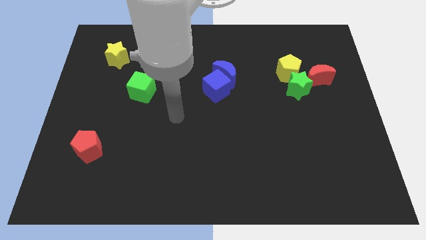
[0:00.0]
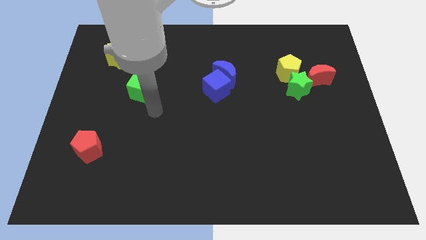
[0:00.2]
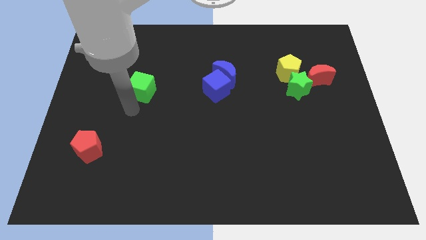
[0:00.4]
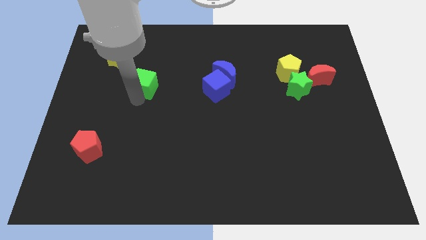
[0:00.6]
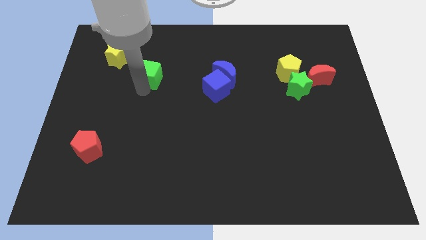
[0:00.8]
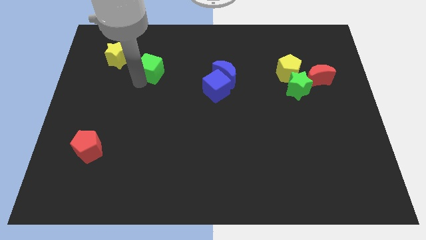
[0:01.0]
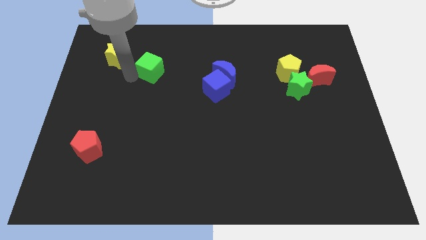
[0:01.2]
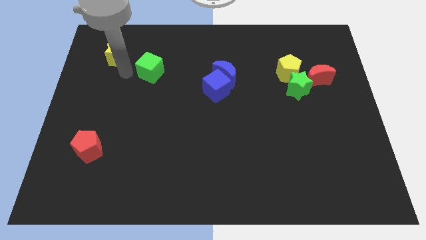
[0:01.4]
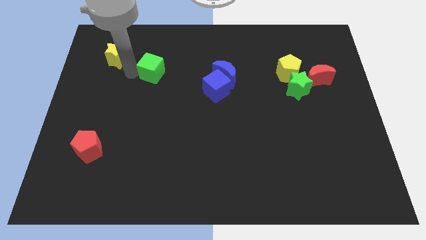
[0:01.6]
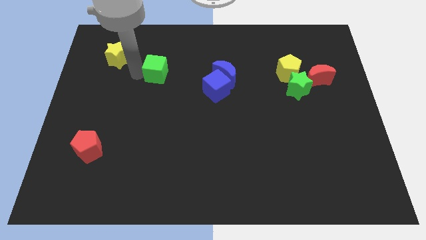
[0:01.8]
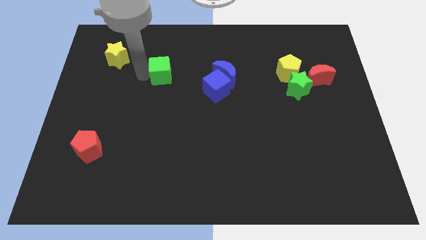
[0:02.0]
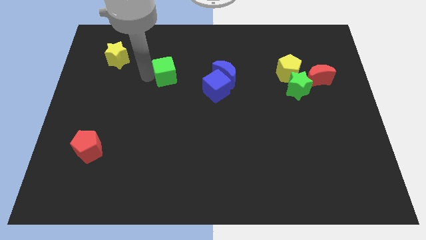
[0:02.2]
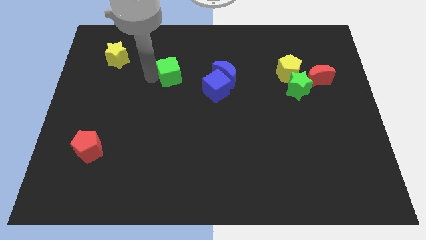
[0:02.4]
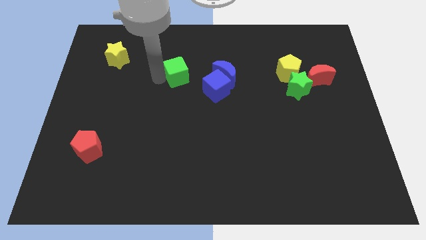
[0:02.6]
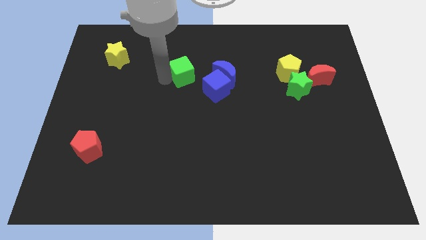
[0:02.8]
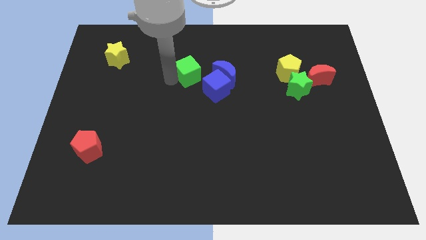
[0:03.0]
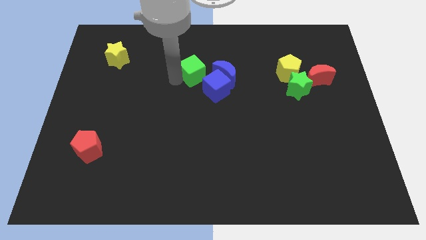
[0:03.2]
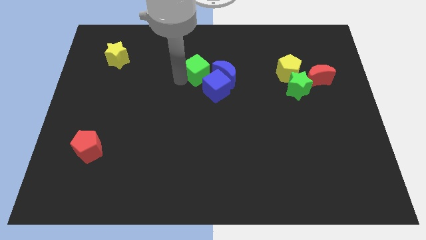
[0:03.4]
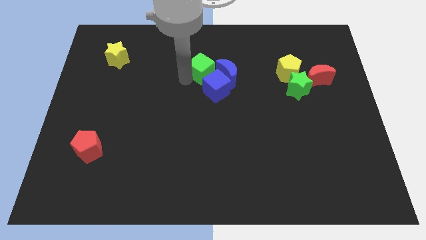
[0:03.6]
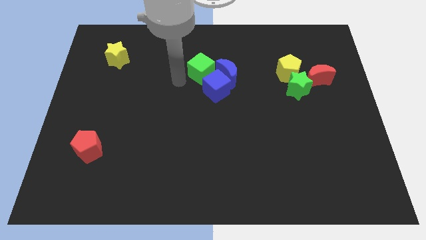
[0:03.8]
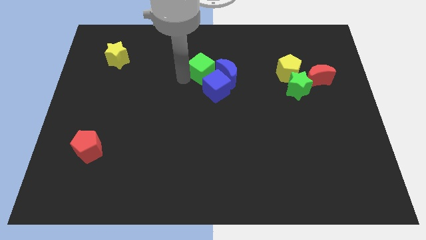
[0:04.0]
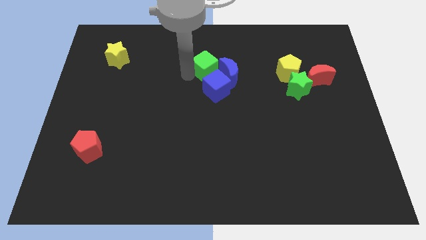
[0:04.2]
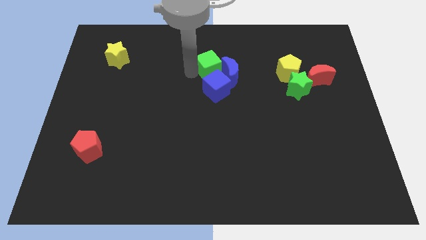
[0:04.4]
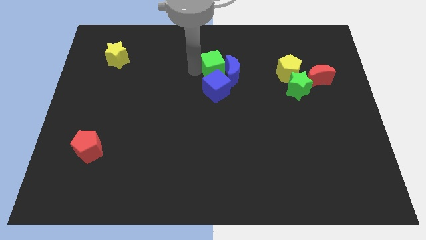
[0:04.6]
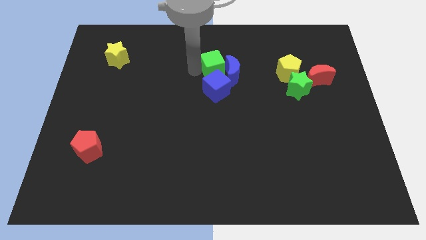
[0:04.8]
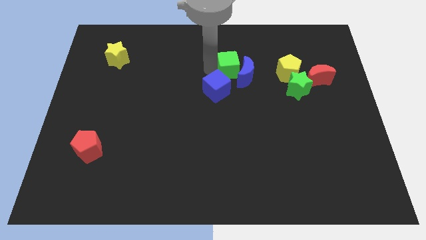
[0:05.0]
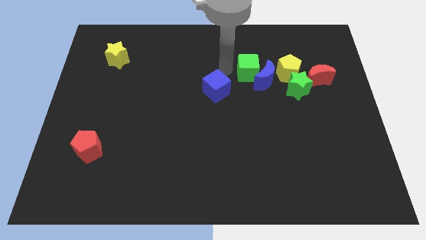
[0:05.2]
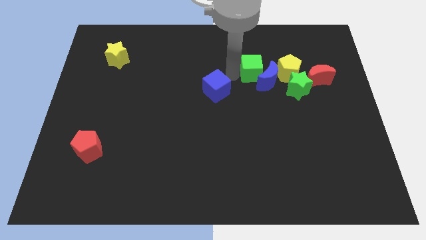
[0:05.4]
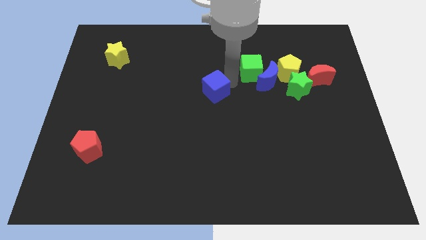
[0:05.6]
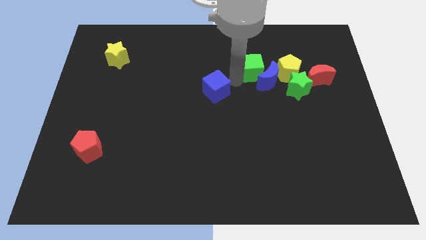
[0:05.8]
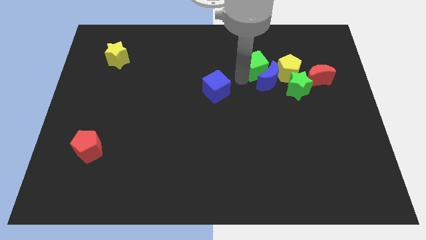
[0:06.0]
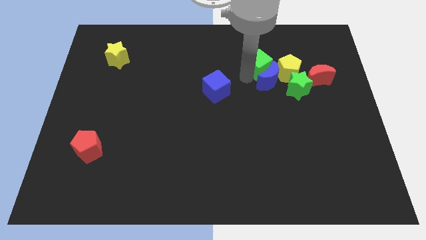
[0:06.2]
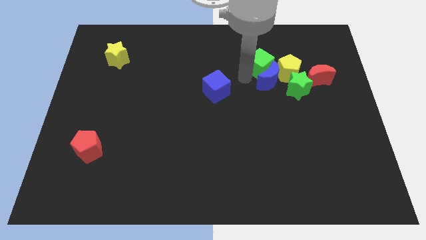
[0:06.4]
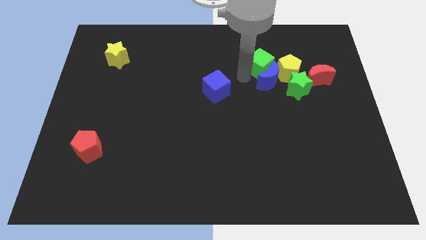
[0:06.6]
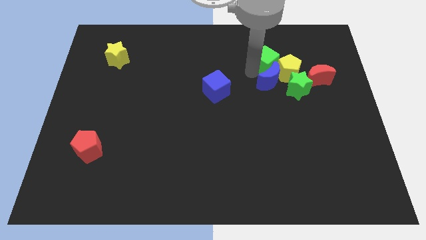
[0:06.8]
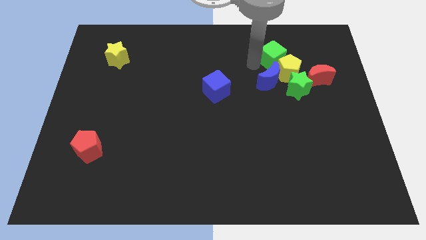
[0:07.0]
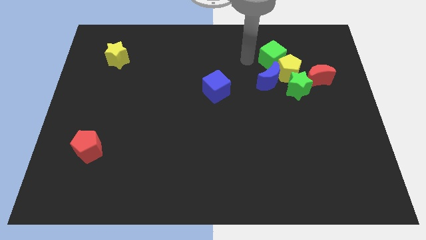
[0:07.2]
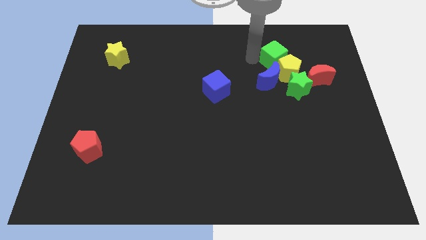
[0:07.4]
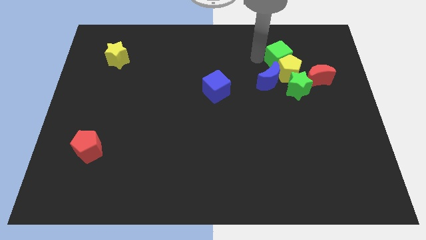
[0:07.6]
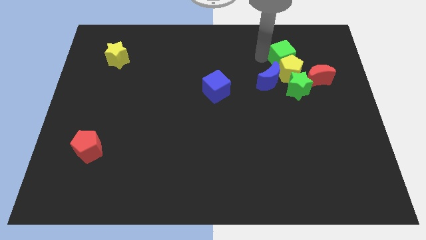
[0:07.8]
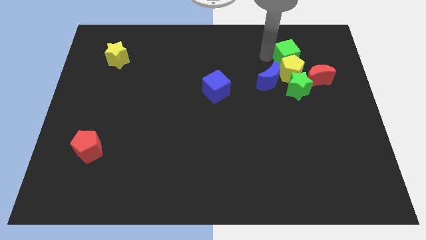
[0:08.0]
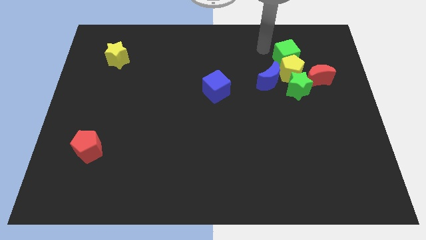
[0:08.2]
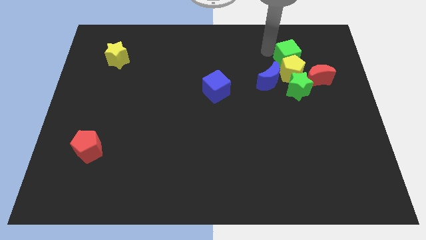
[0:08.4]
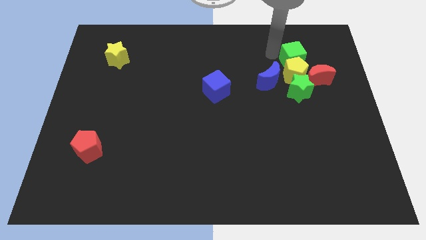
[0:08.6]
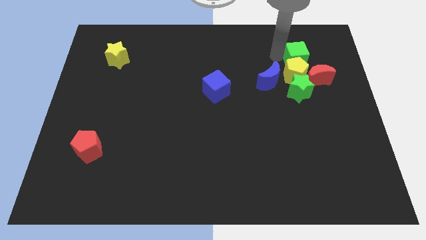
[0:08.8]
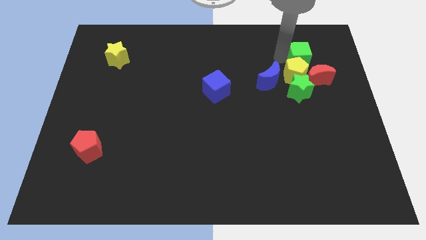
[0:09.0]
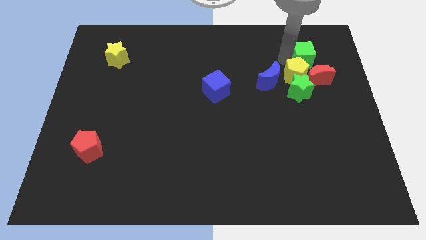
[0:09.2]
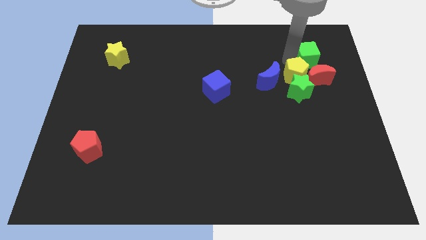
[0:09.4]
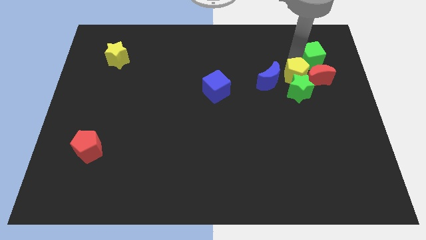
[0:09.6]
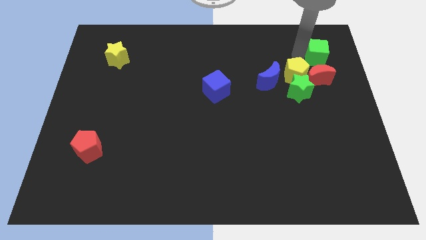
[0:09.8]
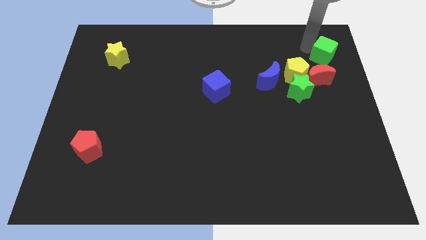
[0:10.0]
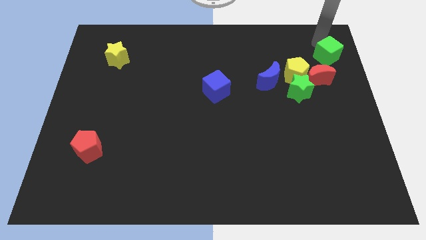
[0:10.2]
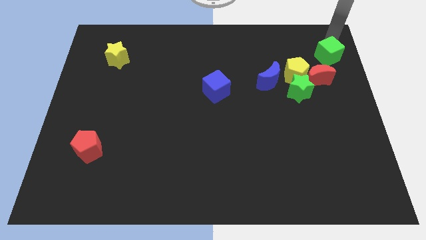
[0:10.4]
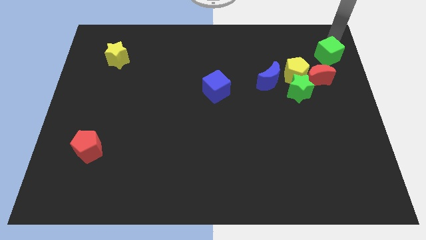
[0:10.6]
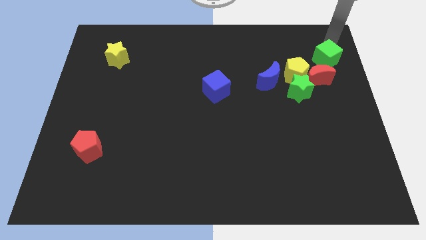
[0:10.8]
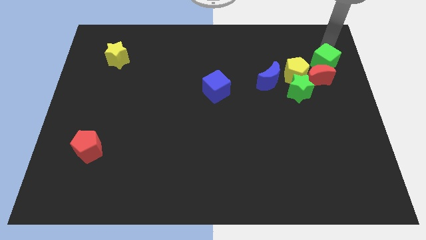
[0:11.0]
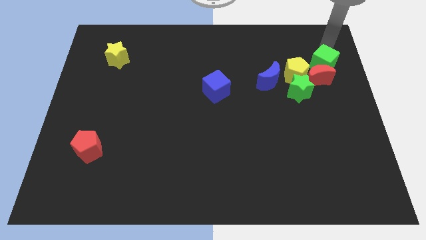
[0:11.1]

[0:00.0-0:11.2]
slide the green cube close to the red moon

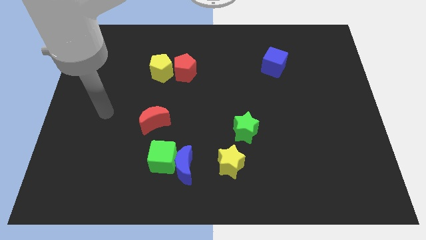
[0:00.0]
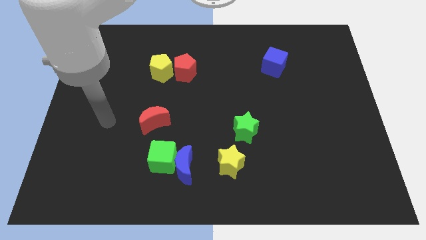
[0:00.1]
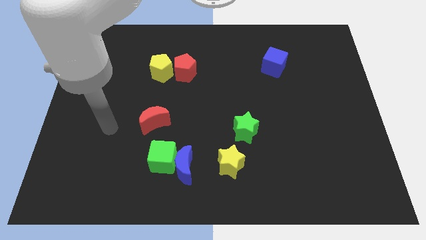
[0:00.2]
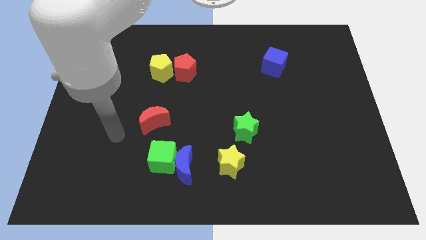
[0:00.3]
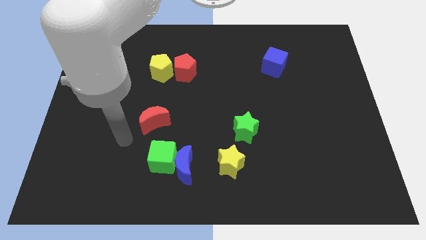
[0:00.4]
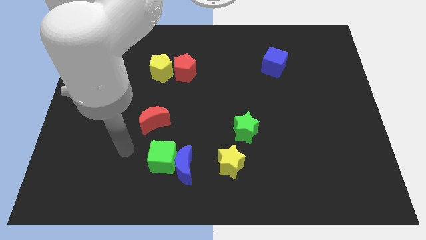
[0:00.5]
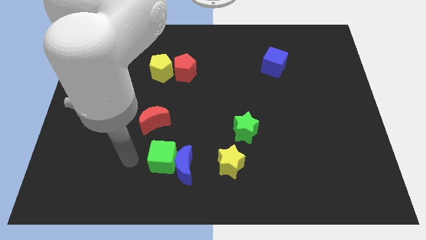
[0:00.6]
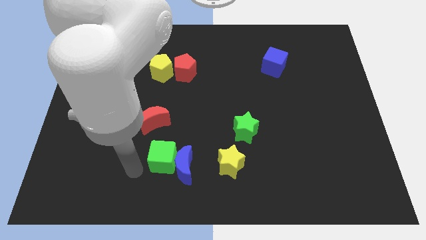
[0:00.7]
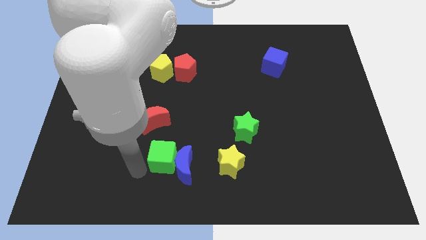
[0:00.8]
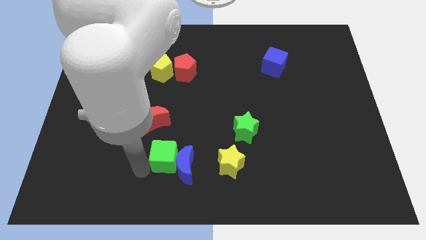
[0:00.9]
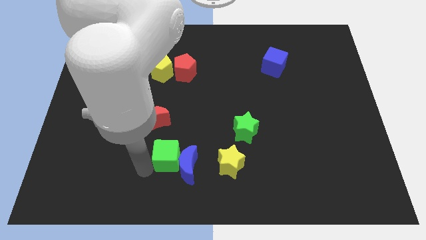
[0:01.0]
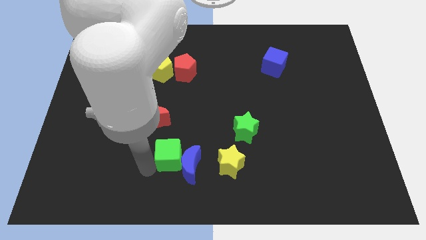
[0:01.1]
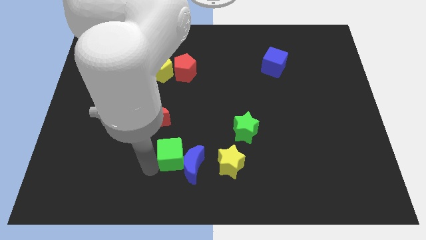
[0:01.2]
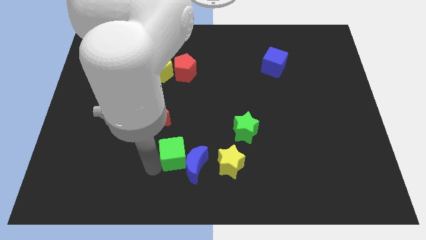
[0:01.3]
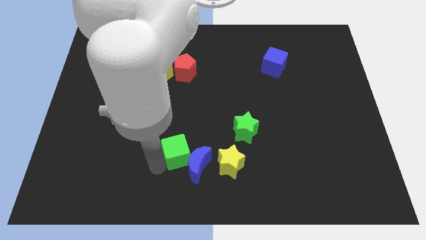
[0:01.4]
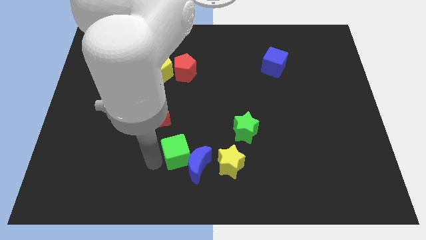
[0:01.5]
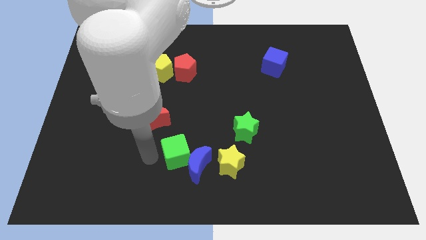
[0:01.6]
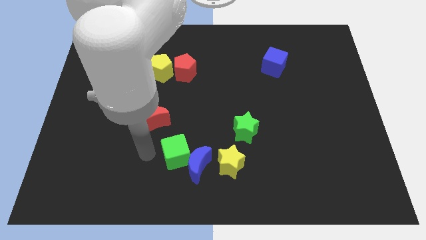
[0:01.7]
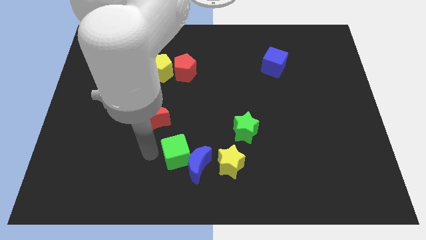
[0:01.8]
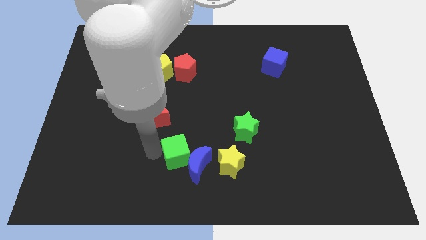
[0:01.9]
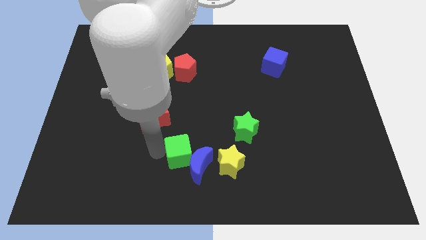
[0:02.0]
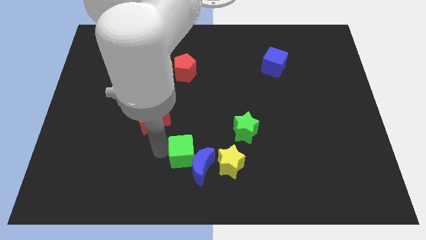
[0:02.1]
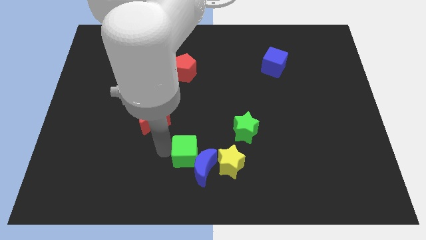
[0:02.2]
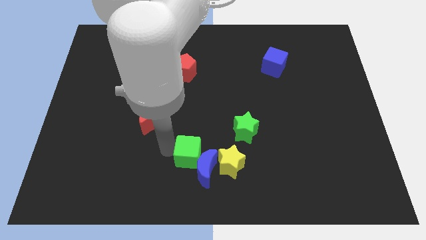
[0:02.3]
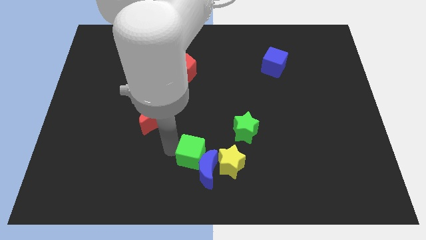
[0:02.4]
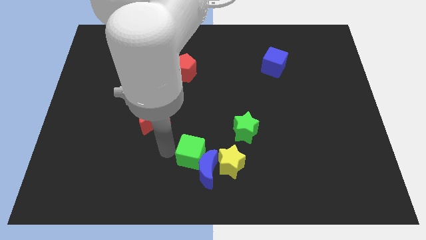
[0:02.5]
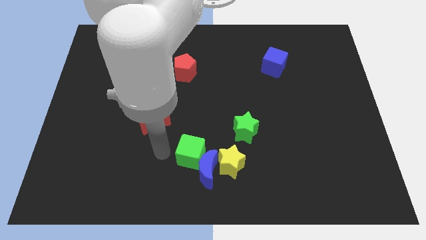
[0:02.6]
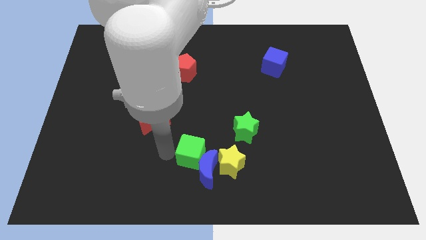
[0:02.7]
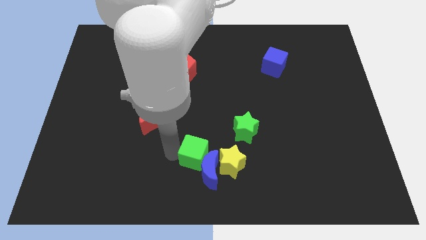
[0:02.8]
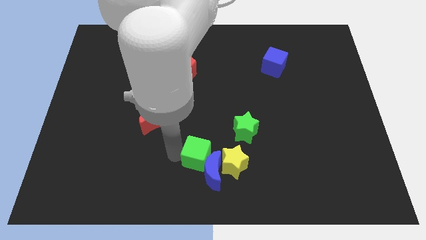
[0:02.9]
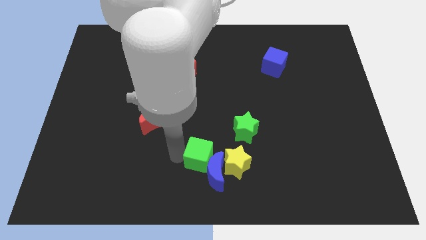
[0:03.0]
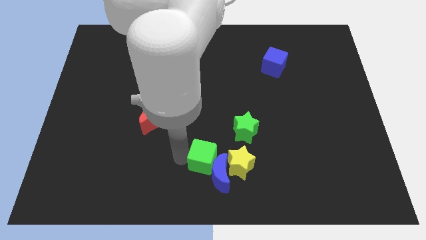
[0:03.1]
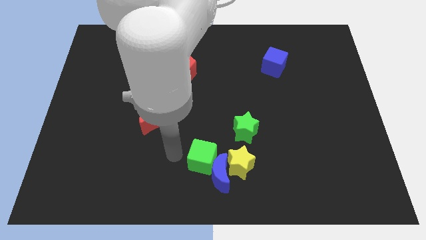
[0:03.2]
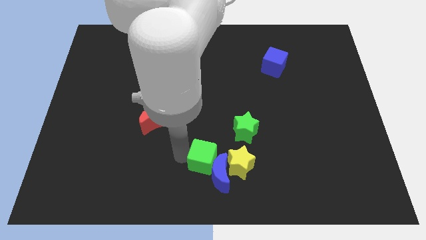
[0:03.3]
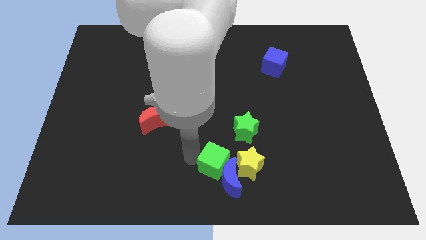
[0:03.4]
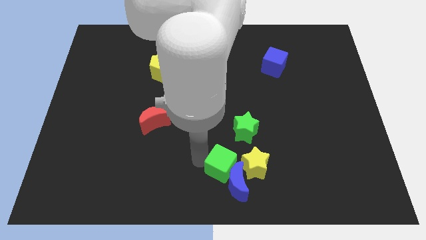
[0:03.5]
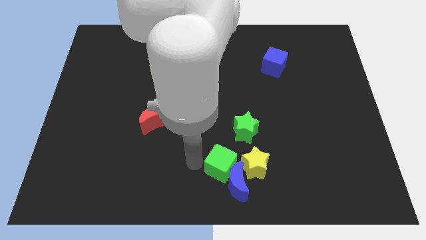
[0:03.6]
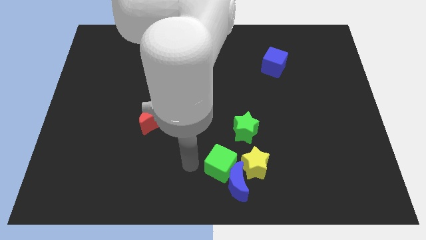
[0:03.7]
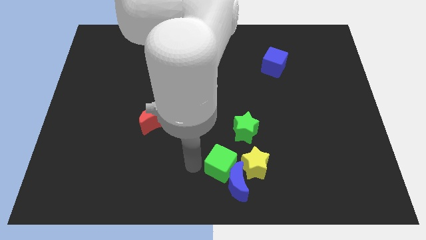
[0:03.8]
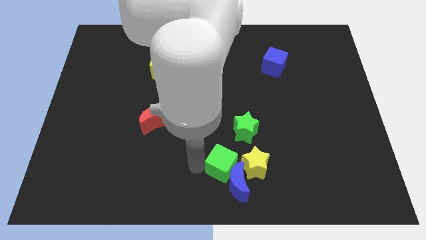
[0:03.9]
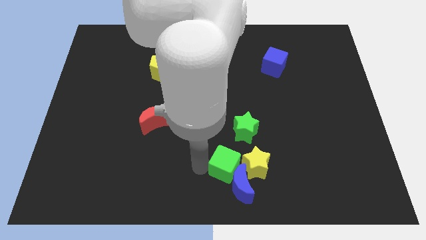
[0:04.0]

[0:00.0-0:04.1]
move the green cube towards the yellow star
